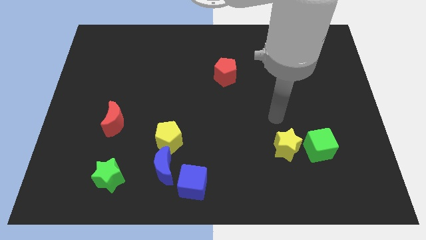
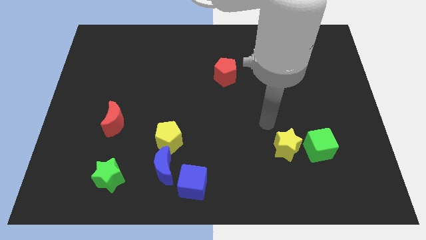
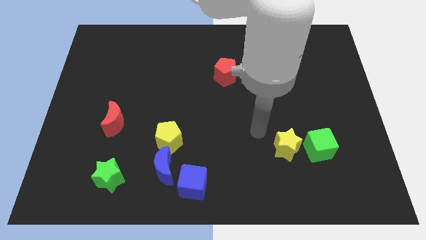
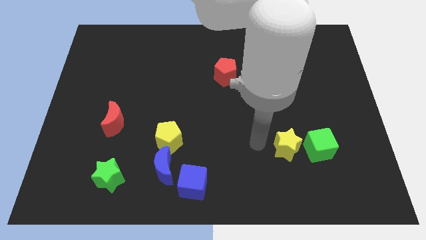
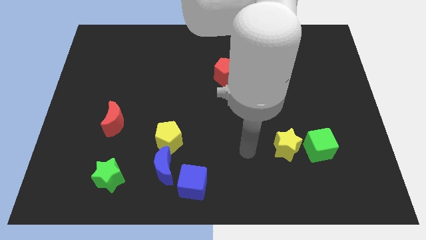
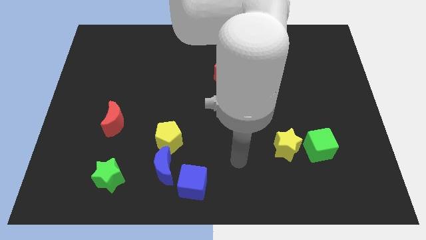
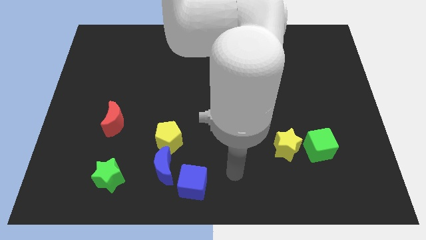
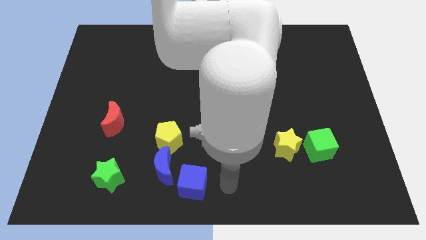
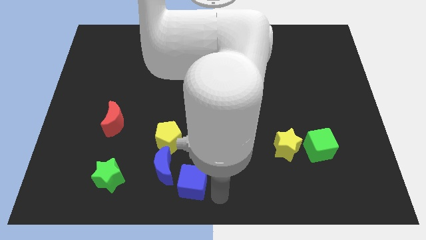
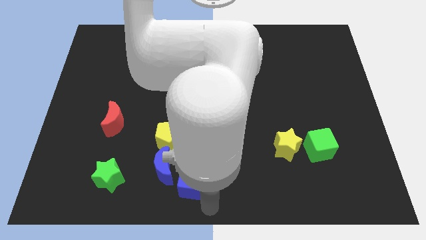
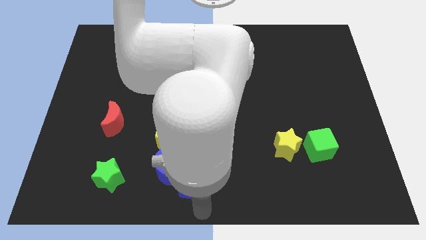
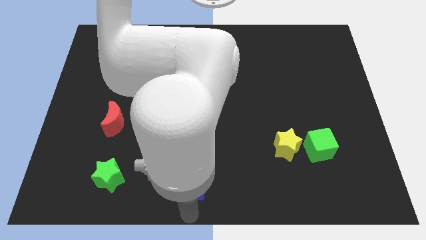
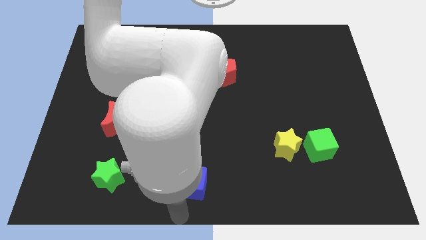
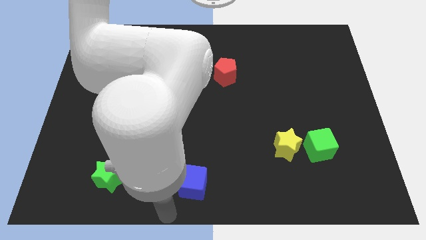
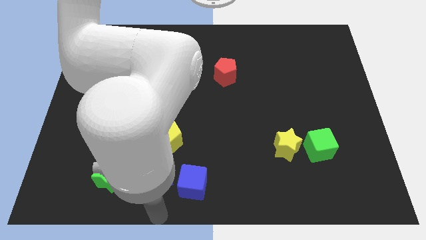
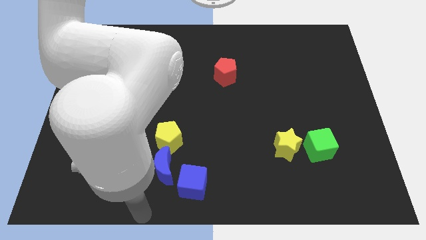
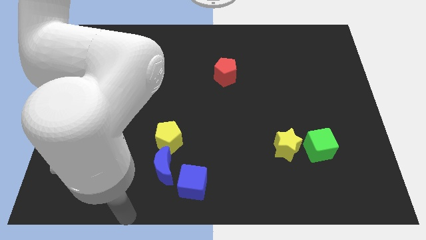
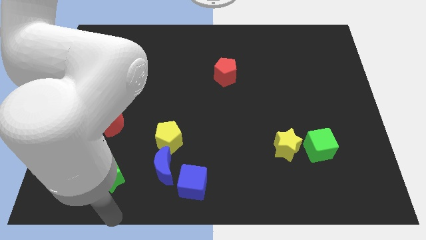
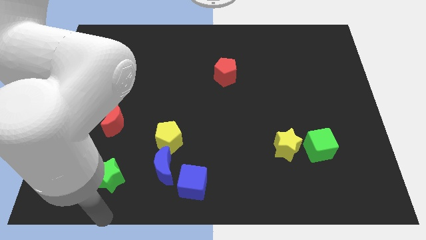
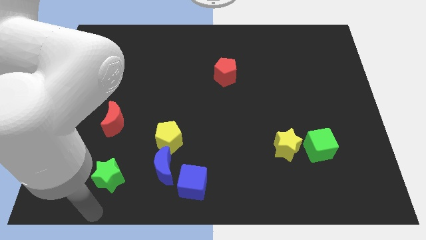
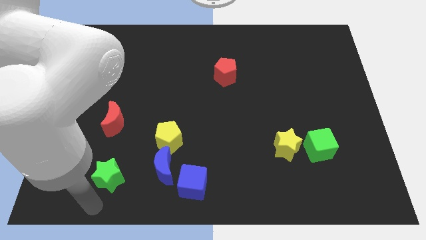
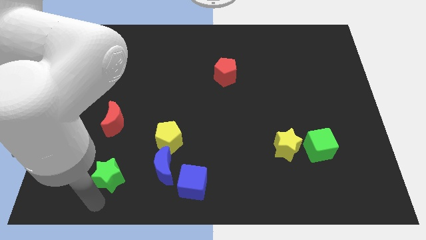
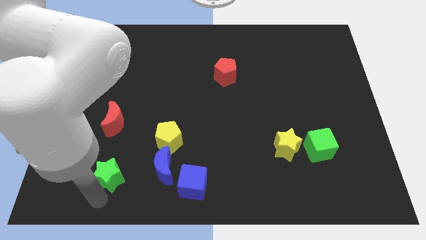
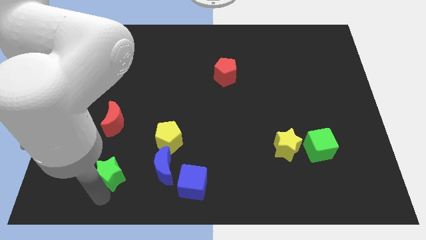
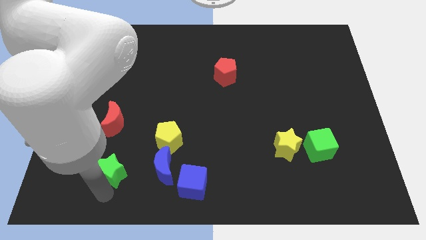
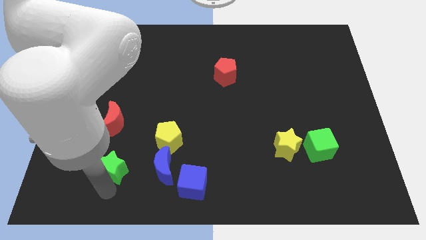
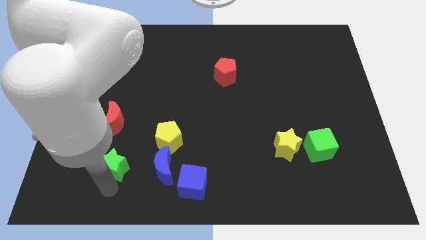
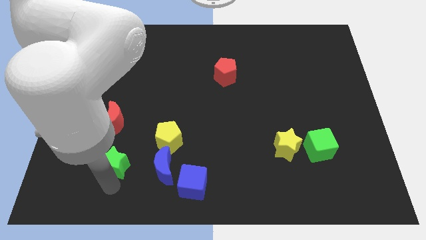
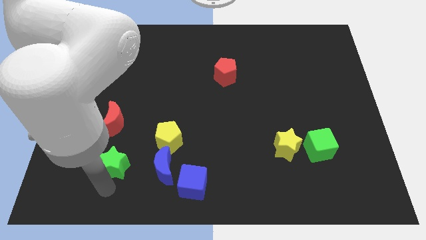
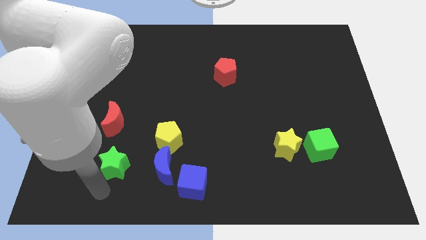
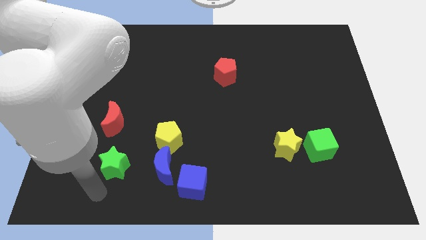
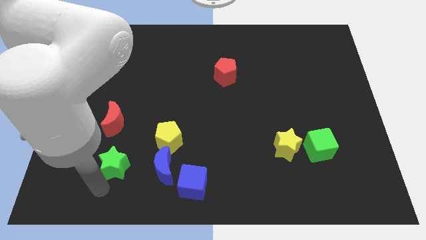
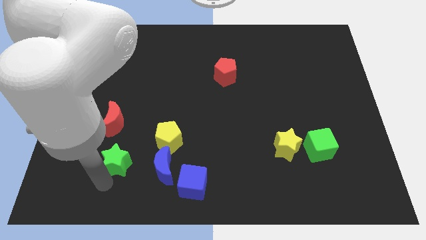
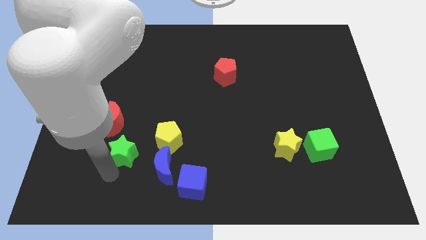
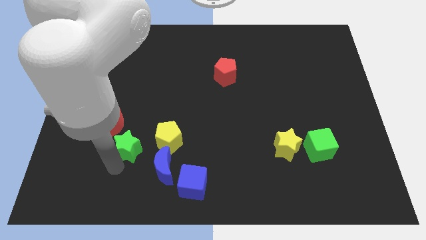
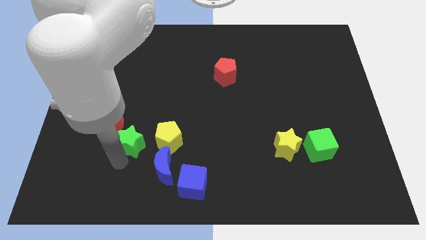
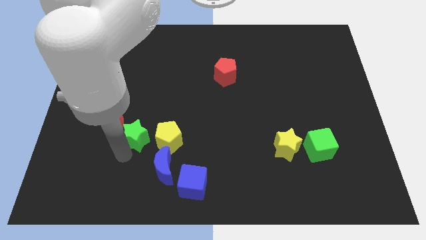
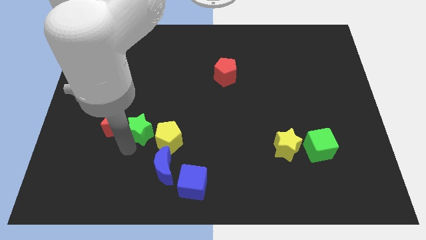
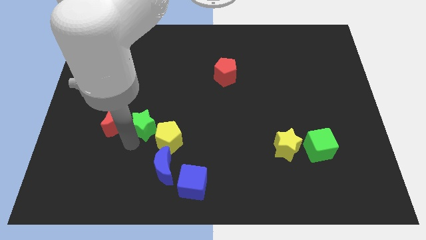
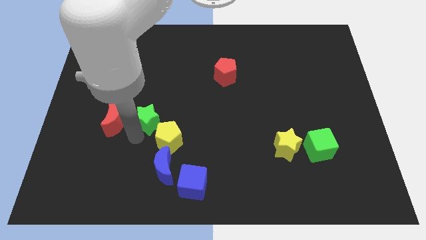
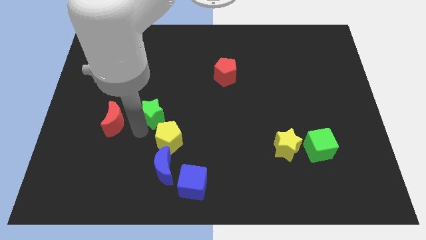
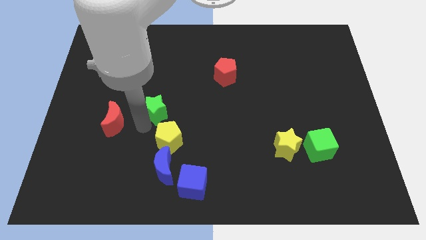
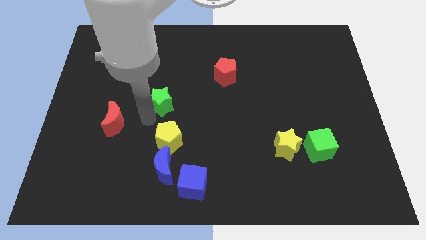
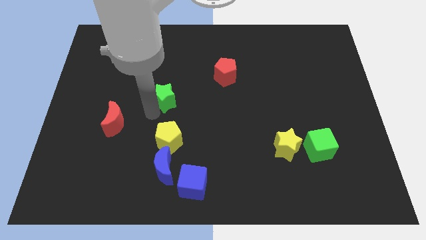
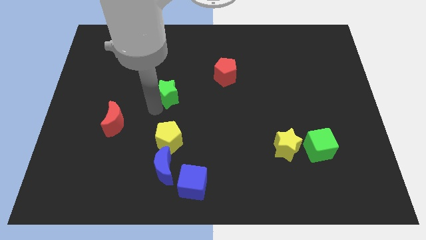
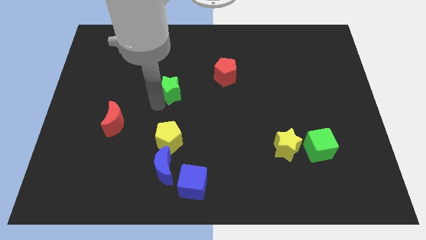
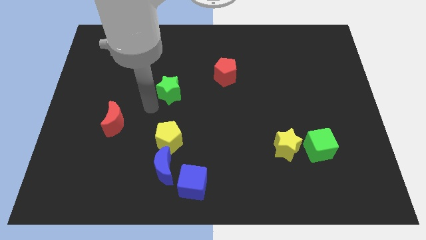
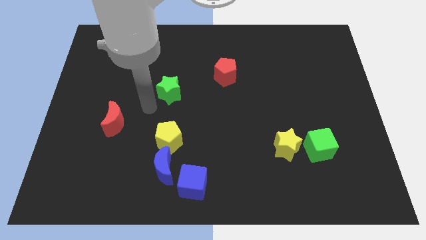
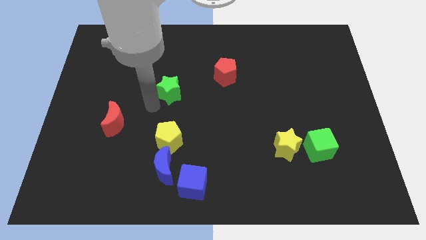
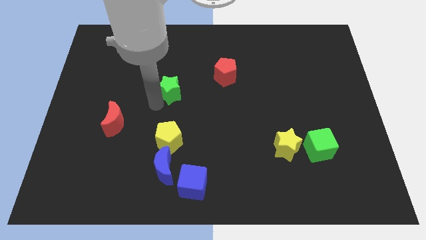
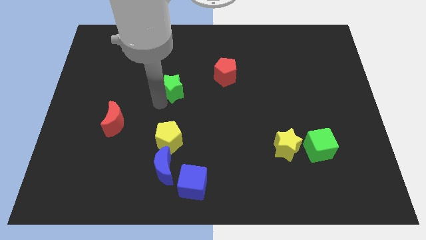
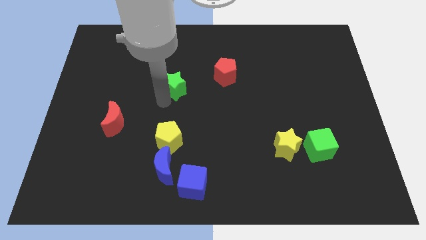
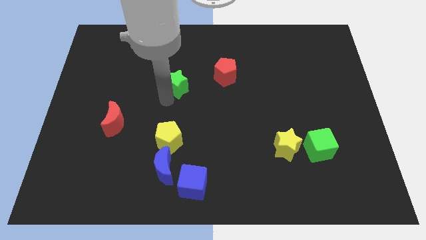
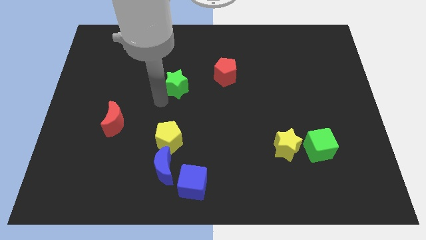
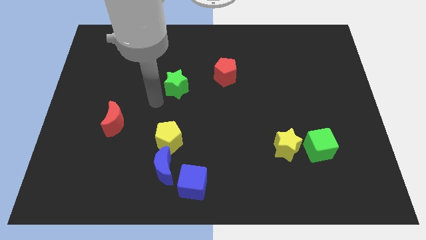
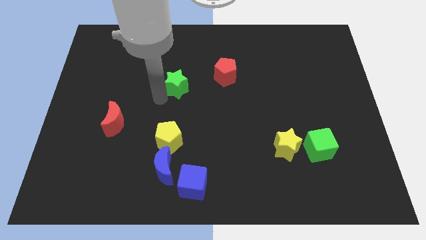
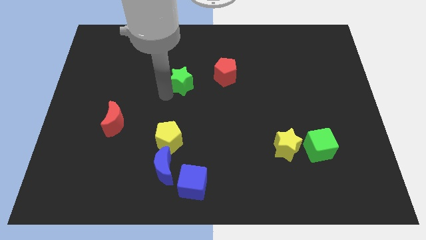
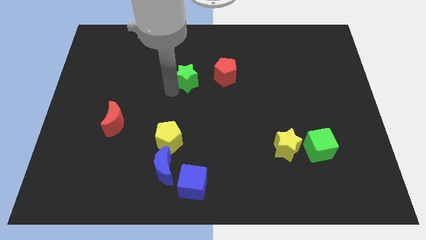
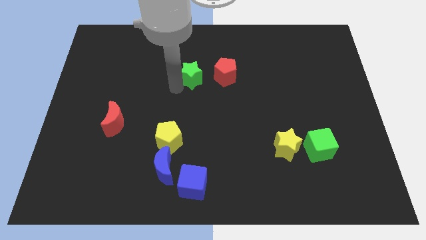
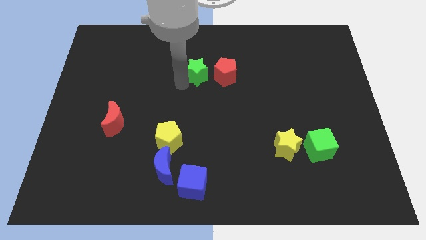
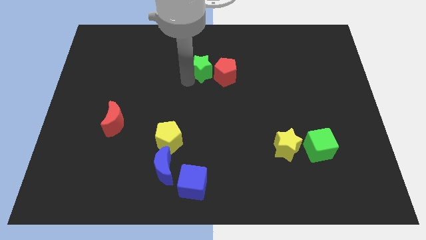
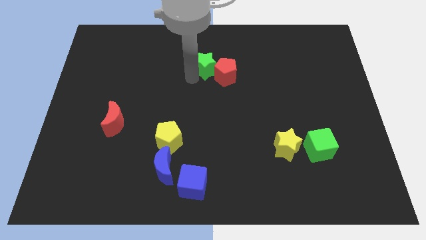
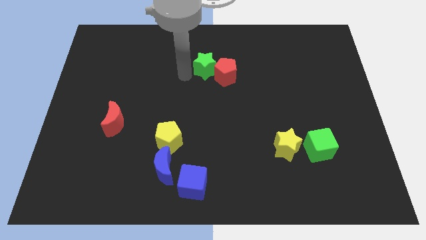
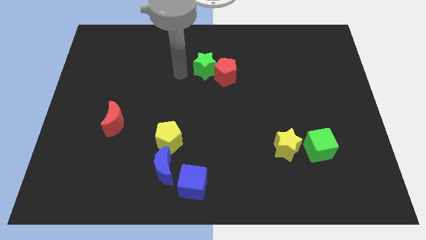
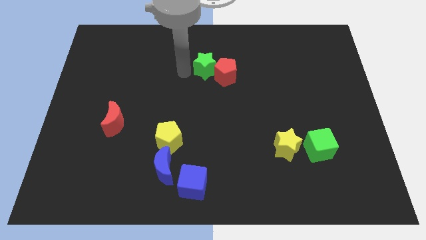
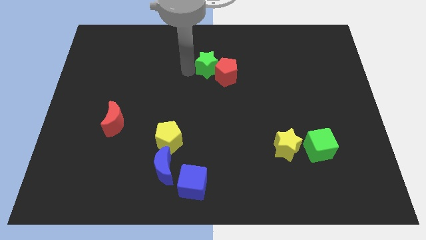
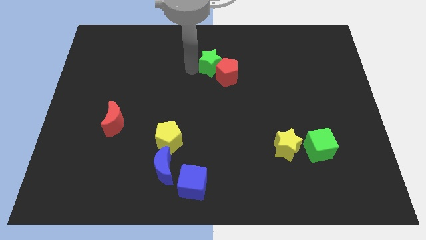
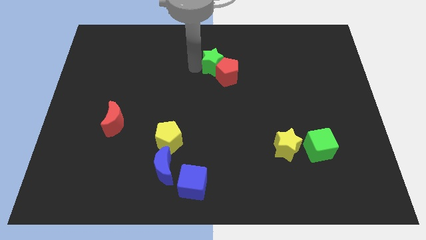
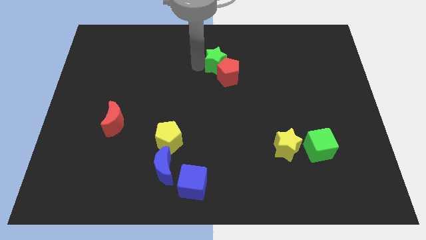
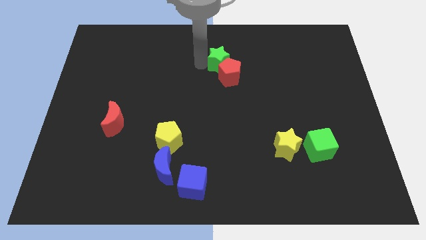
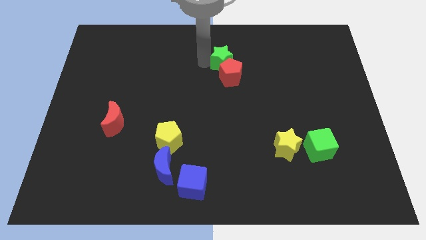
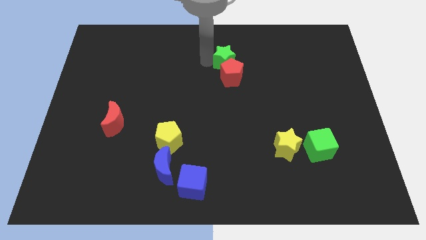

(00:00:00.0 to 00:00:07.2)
put the green star diagonally up and to the right of the red pentagon
